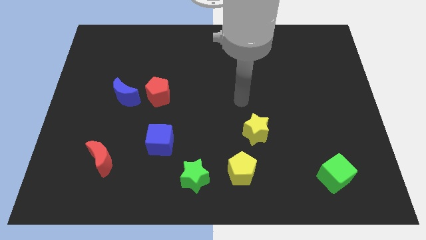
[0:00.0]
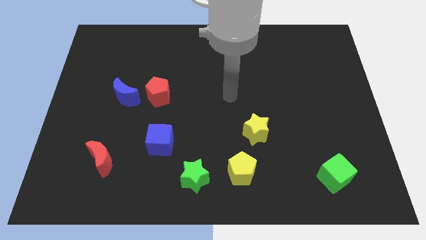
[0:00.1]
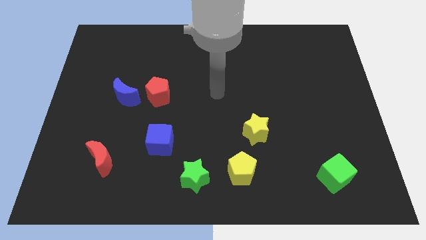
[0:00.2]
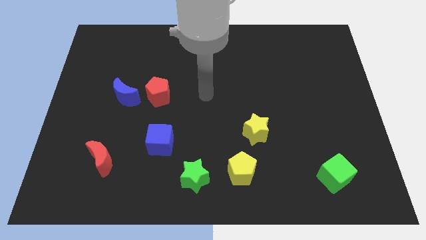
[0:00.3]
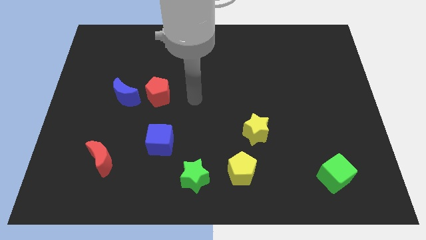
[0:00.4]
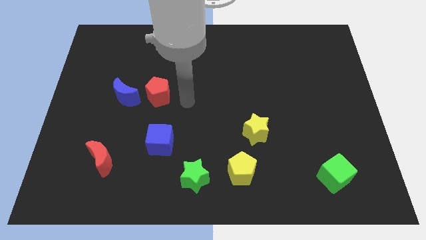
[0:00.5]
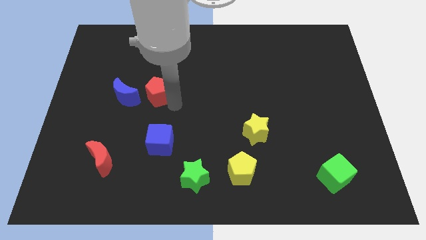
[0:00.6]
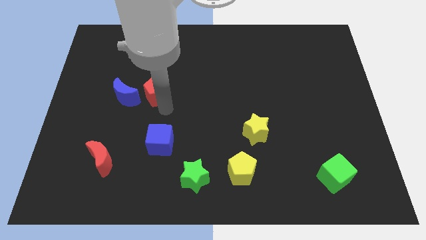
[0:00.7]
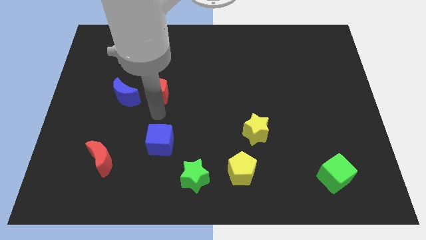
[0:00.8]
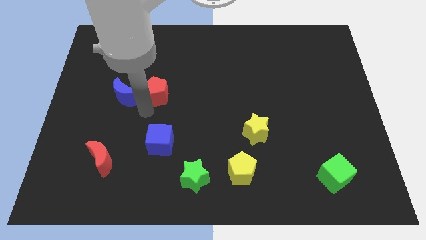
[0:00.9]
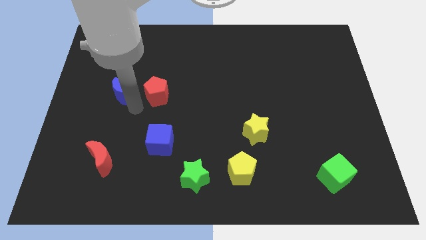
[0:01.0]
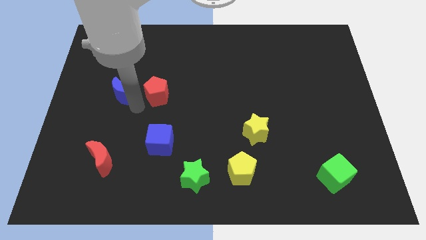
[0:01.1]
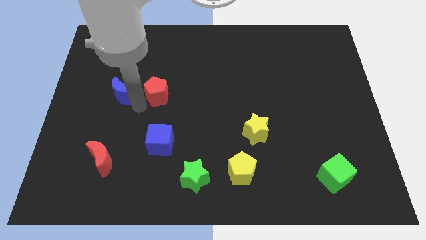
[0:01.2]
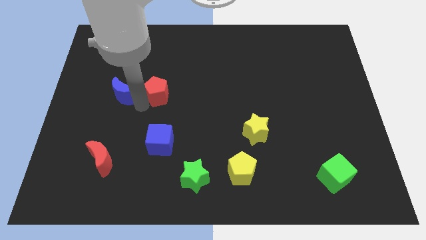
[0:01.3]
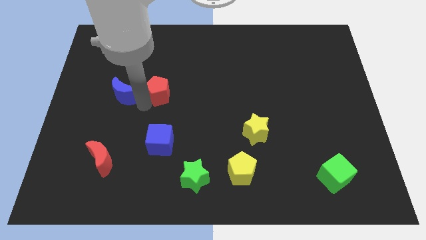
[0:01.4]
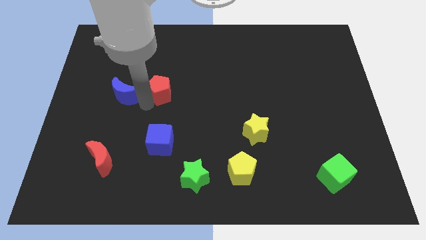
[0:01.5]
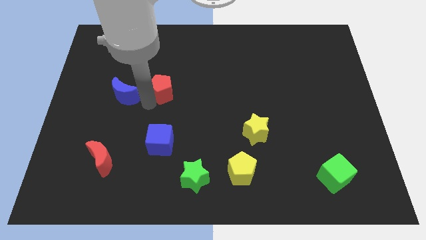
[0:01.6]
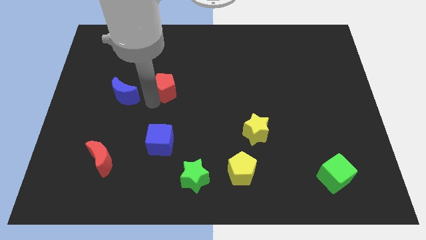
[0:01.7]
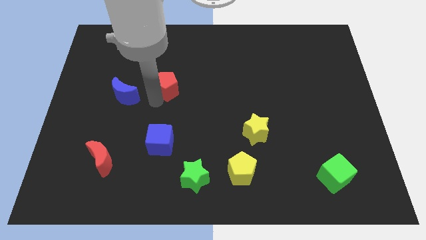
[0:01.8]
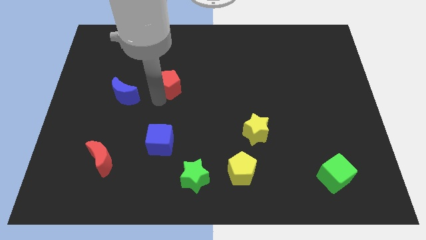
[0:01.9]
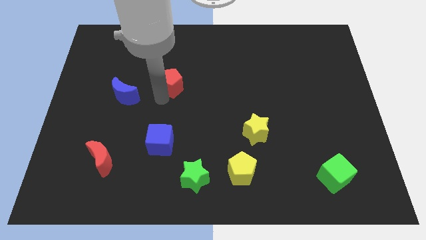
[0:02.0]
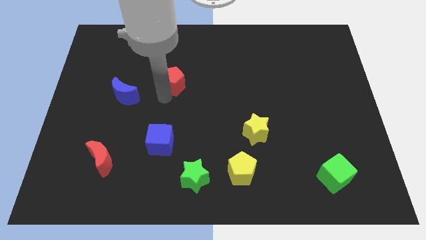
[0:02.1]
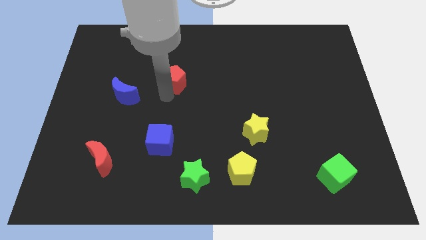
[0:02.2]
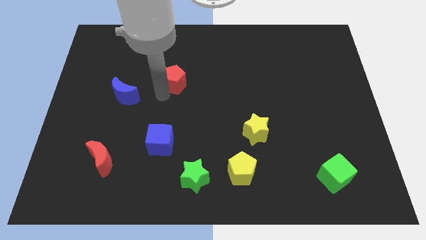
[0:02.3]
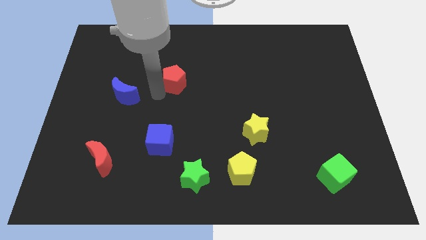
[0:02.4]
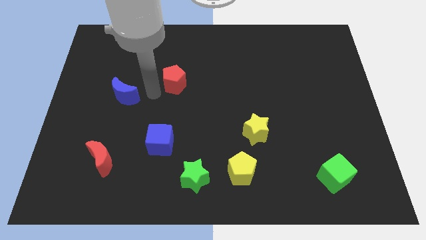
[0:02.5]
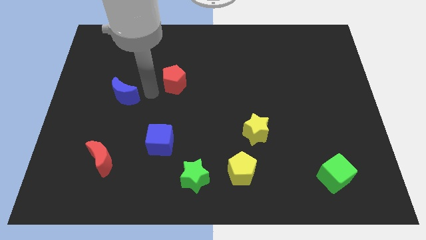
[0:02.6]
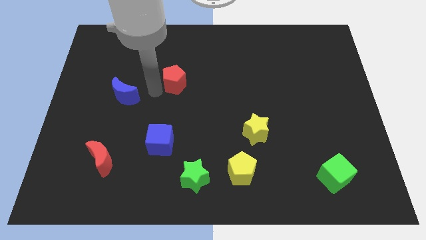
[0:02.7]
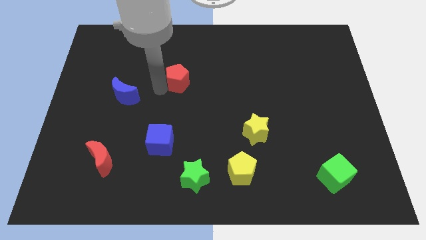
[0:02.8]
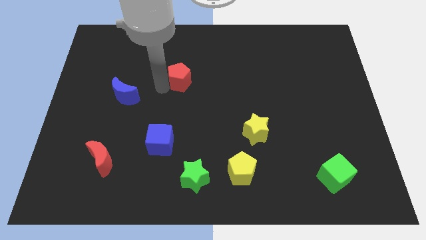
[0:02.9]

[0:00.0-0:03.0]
move the red pentagon diagonally upwards and to the right a little bit

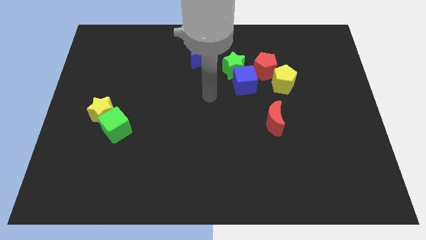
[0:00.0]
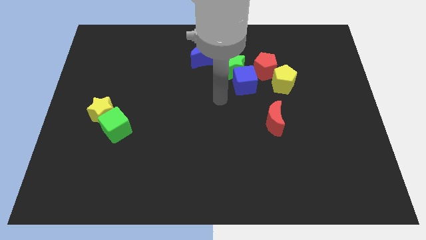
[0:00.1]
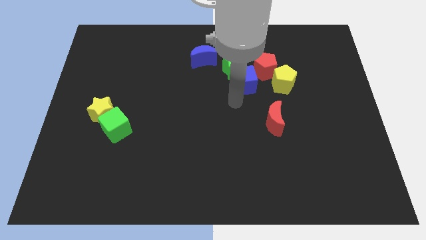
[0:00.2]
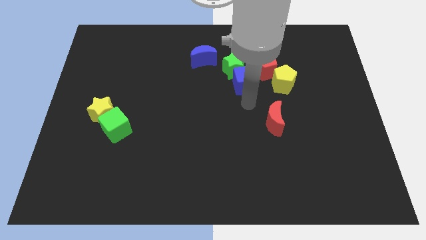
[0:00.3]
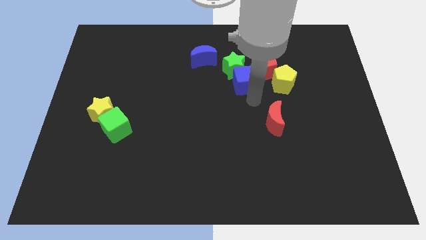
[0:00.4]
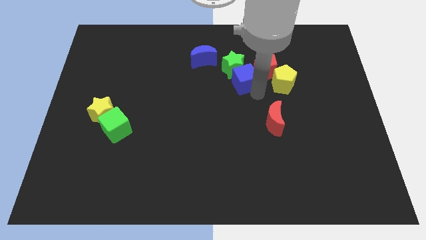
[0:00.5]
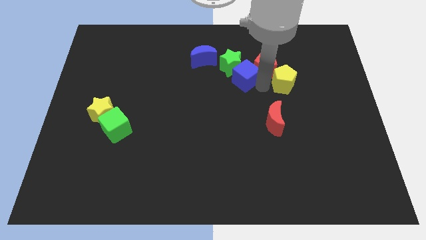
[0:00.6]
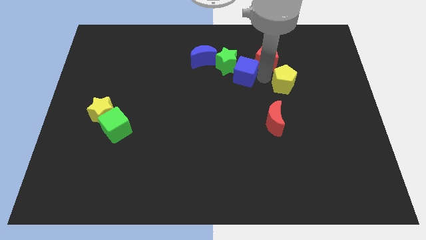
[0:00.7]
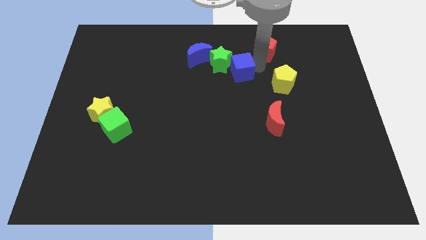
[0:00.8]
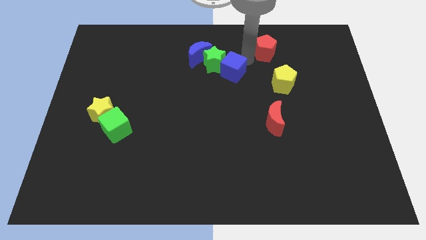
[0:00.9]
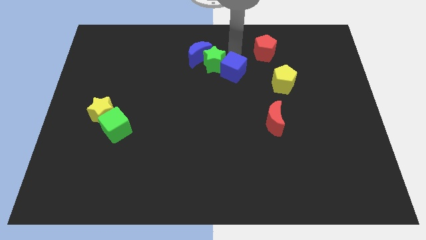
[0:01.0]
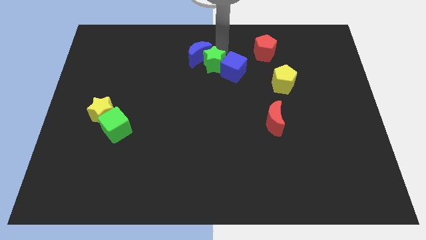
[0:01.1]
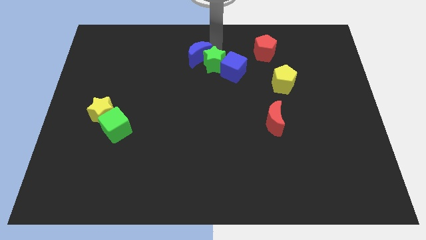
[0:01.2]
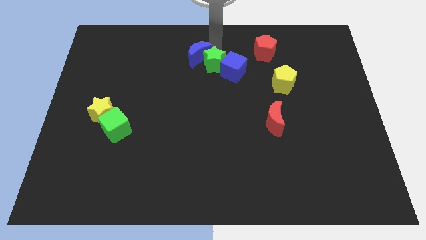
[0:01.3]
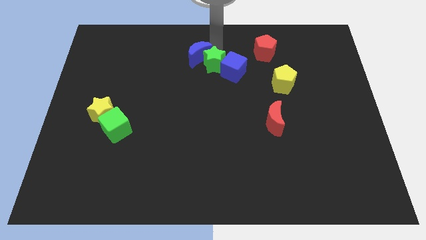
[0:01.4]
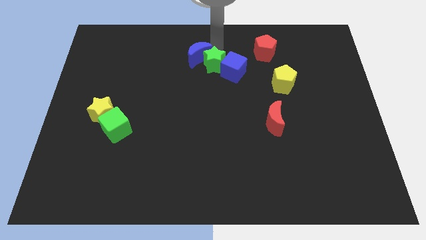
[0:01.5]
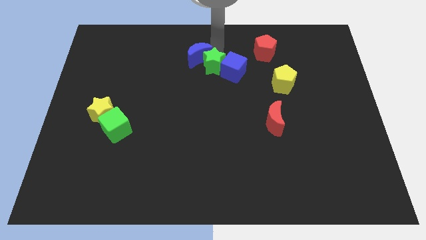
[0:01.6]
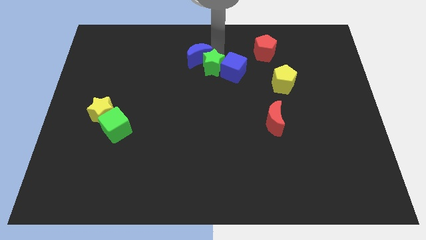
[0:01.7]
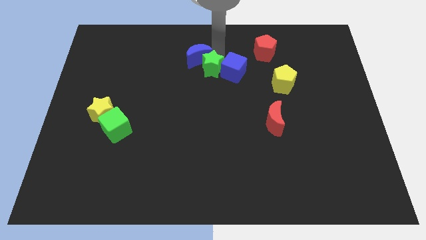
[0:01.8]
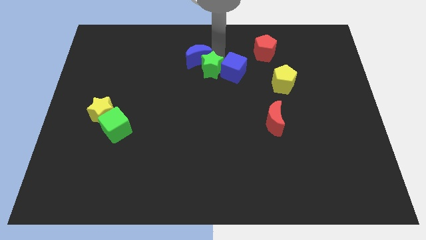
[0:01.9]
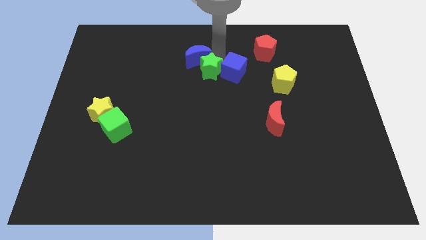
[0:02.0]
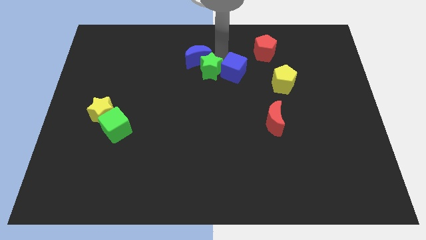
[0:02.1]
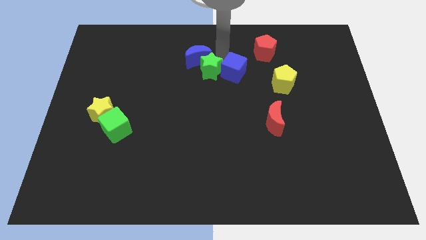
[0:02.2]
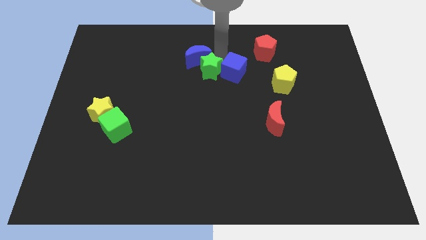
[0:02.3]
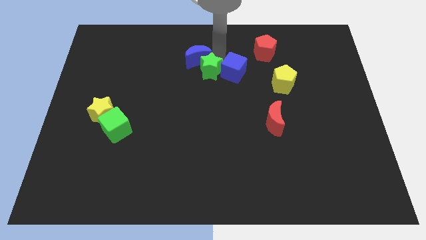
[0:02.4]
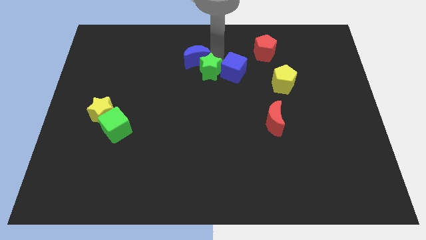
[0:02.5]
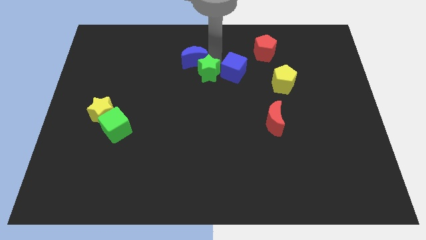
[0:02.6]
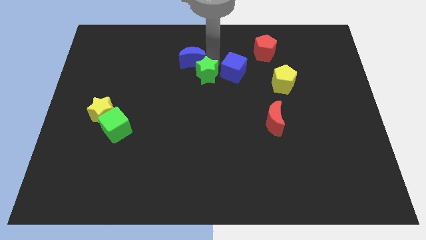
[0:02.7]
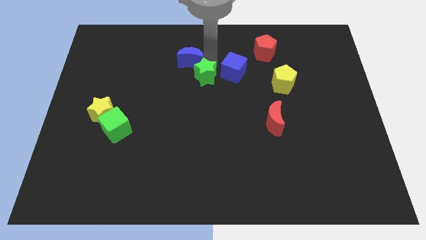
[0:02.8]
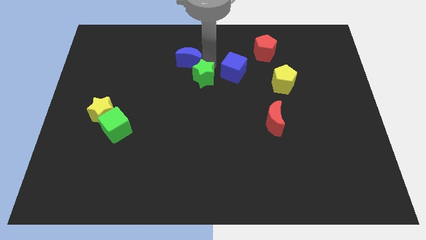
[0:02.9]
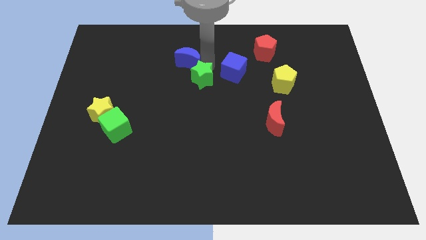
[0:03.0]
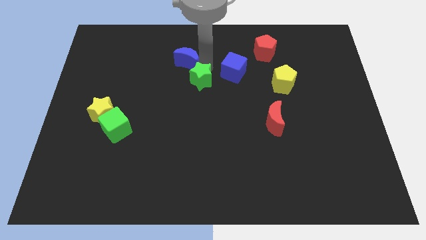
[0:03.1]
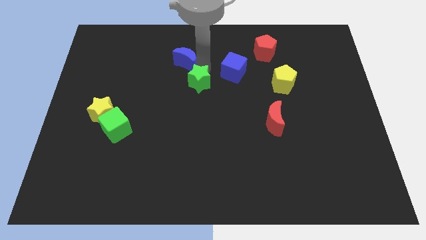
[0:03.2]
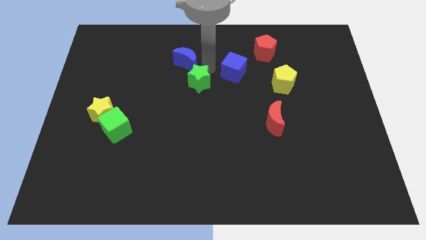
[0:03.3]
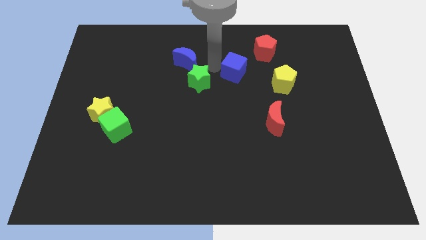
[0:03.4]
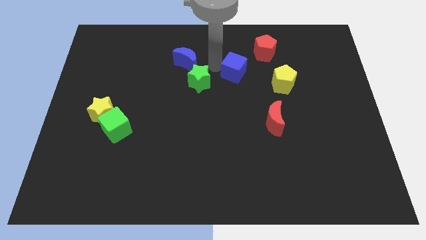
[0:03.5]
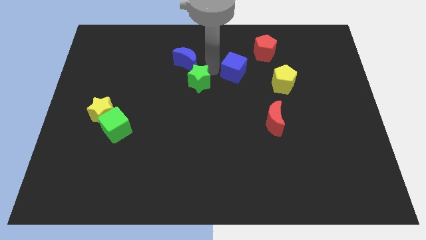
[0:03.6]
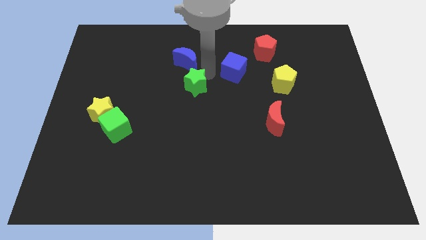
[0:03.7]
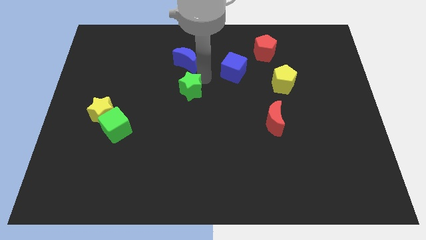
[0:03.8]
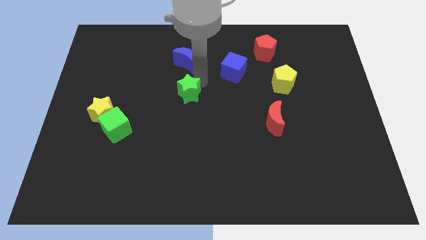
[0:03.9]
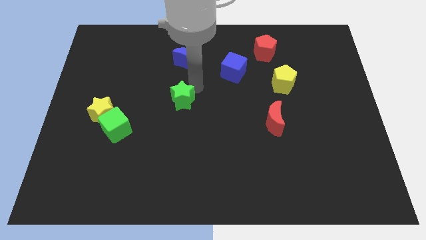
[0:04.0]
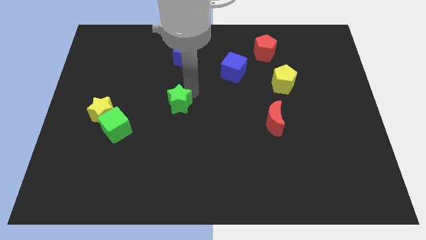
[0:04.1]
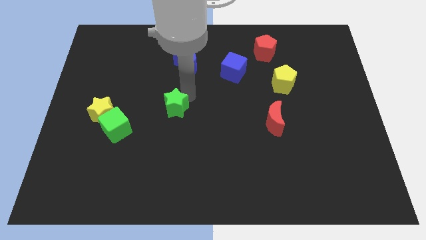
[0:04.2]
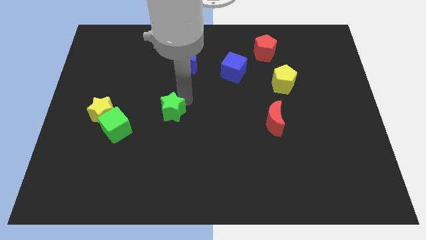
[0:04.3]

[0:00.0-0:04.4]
slide the green star downwards and left diagonally

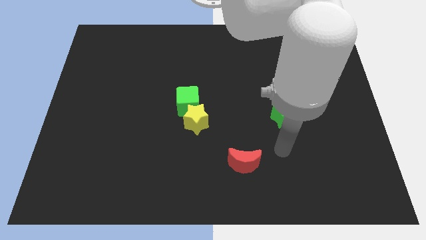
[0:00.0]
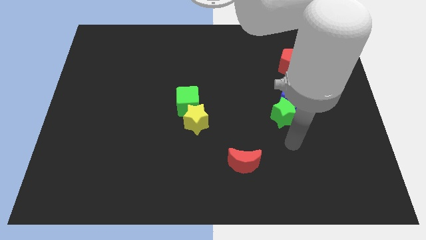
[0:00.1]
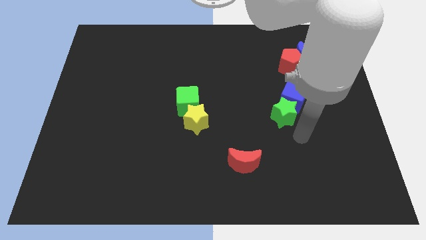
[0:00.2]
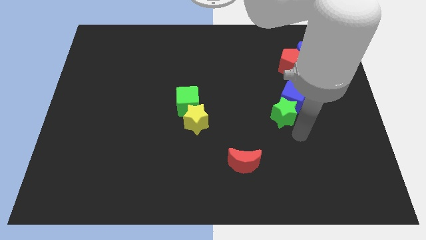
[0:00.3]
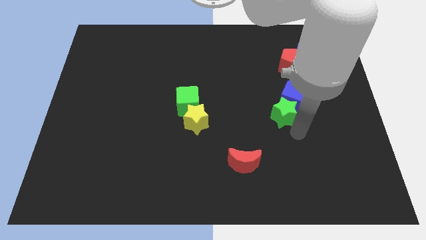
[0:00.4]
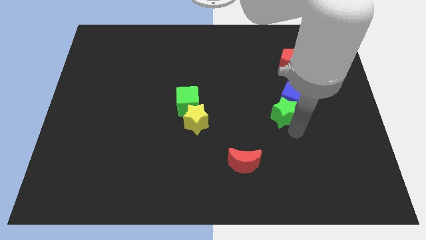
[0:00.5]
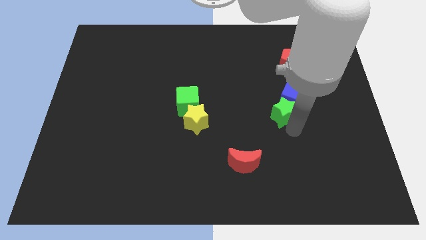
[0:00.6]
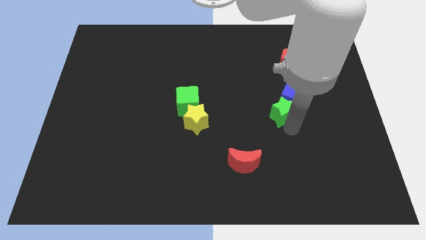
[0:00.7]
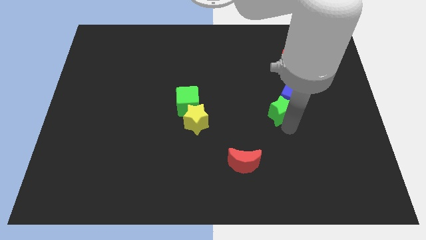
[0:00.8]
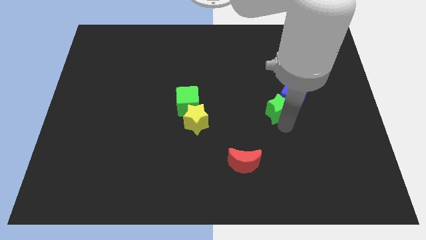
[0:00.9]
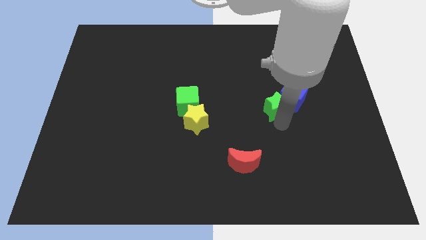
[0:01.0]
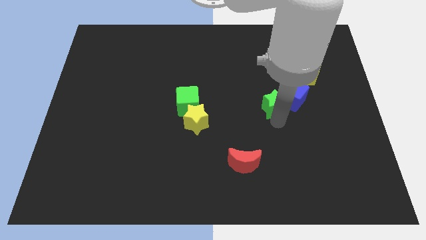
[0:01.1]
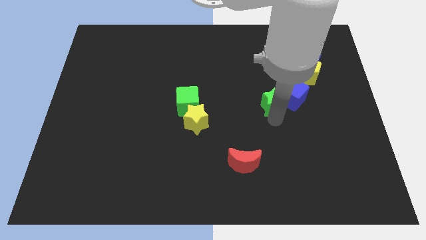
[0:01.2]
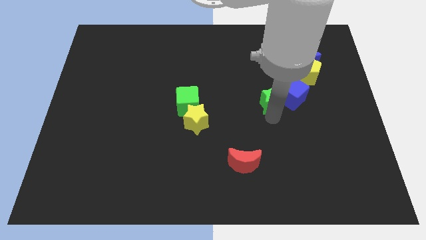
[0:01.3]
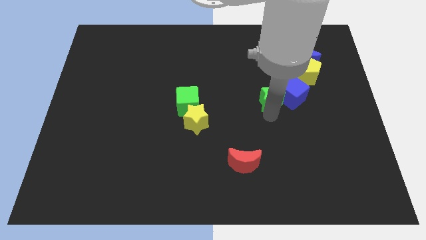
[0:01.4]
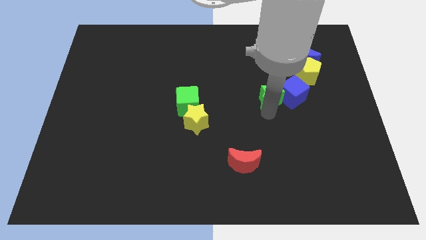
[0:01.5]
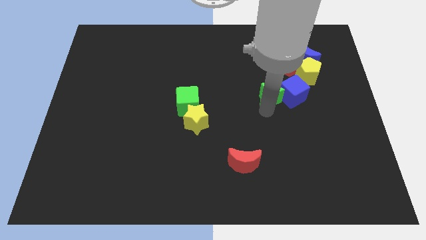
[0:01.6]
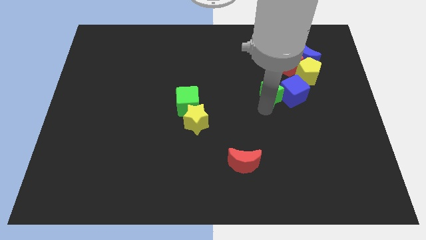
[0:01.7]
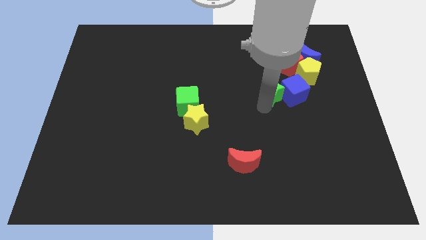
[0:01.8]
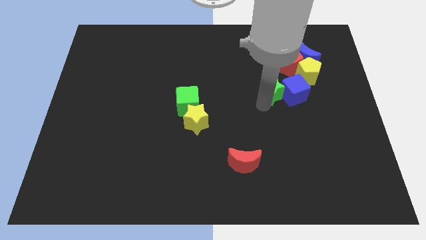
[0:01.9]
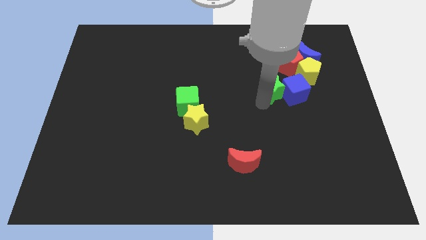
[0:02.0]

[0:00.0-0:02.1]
slightly push the green star upwards
